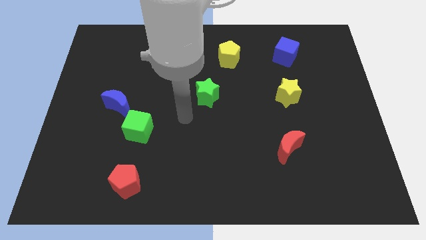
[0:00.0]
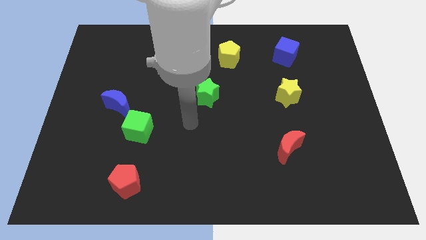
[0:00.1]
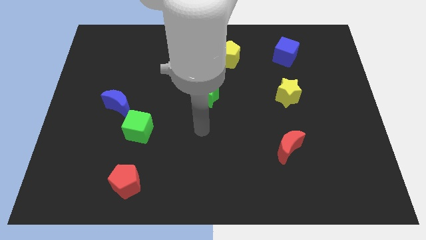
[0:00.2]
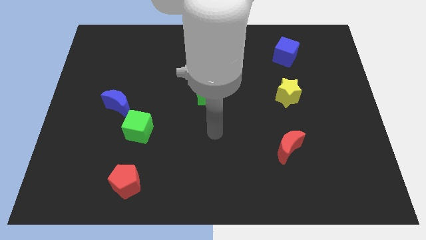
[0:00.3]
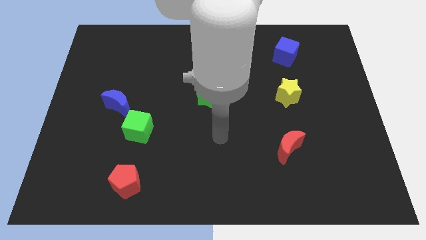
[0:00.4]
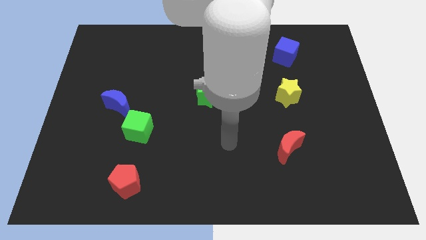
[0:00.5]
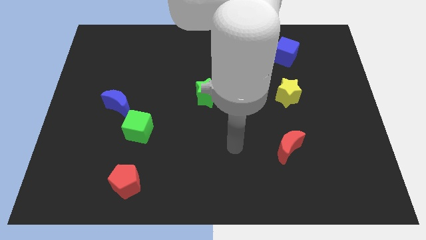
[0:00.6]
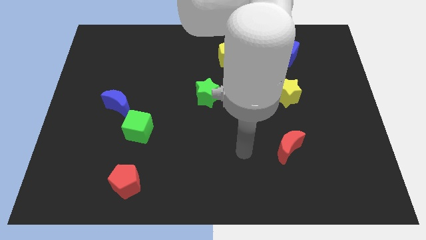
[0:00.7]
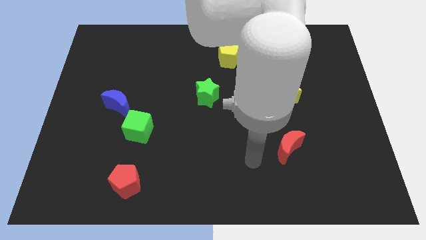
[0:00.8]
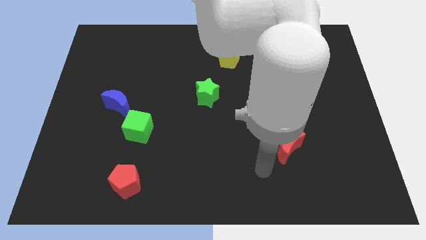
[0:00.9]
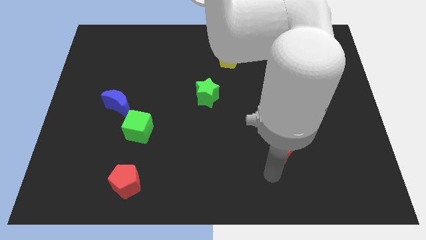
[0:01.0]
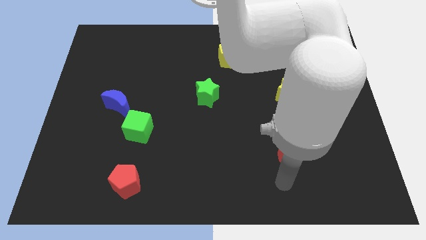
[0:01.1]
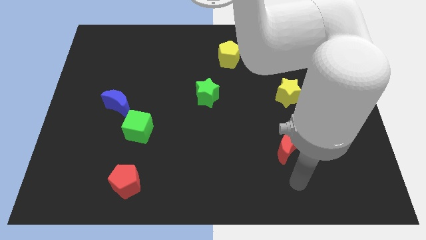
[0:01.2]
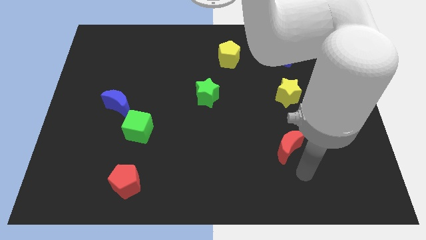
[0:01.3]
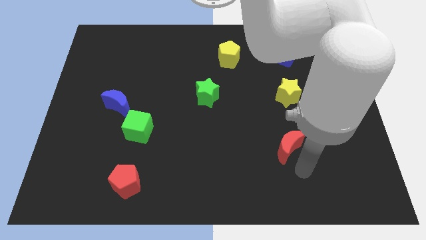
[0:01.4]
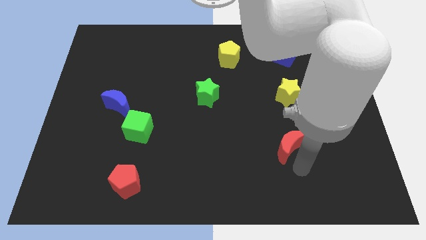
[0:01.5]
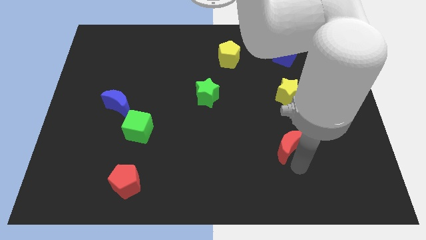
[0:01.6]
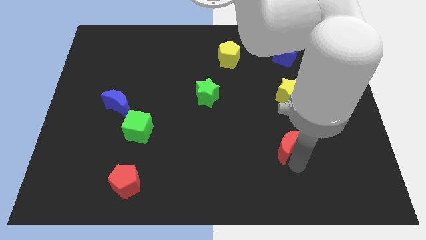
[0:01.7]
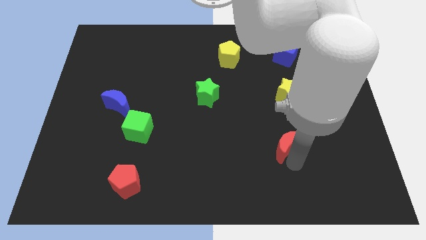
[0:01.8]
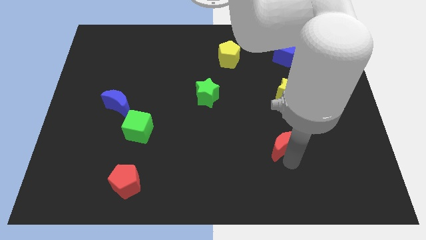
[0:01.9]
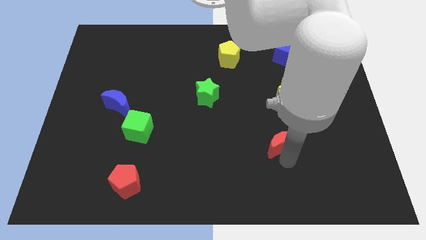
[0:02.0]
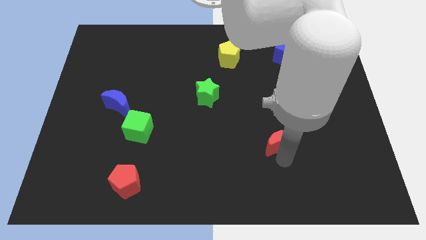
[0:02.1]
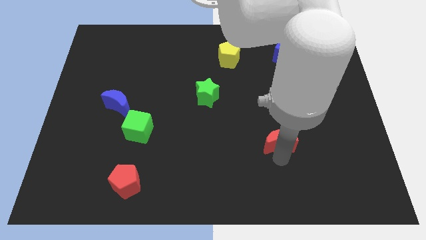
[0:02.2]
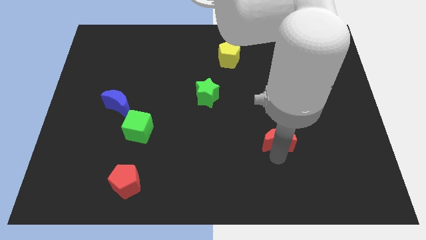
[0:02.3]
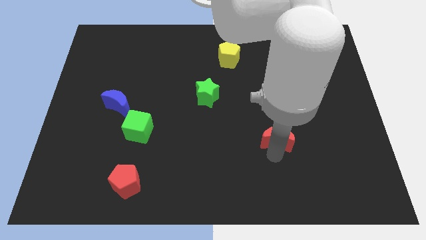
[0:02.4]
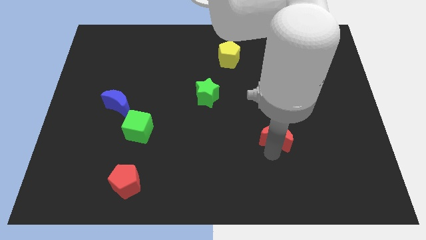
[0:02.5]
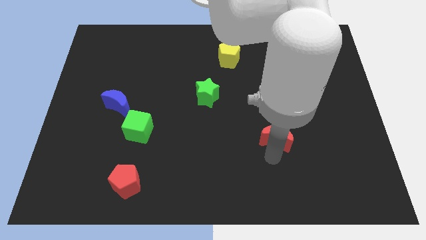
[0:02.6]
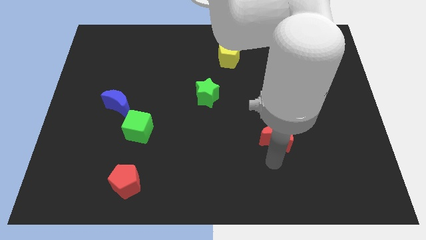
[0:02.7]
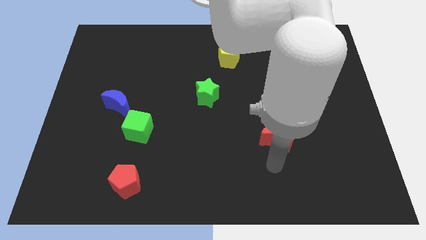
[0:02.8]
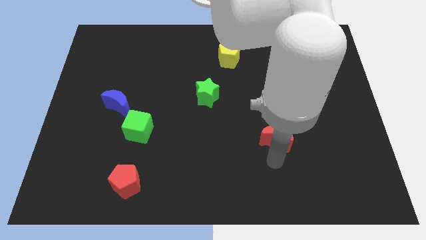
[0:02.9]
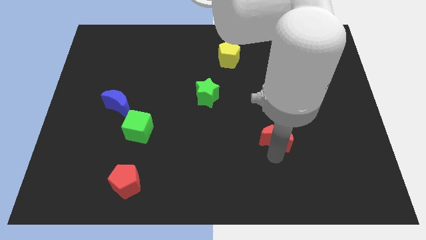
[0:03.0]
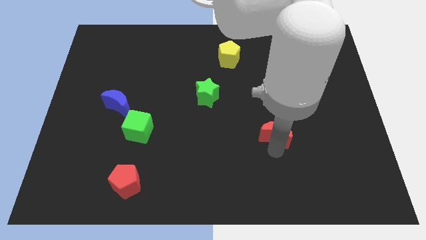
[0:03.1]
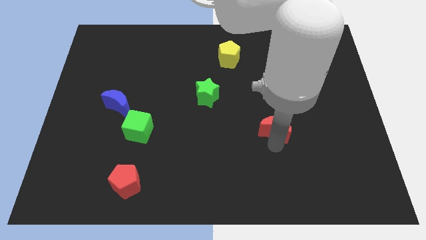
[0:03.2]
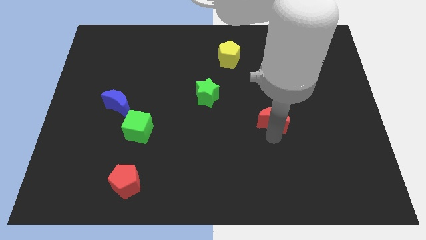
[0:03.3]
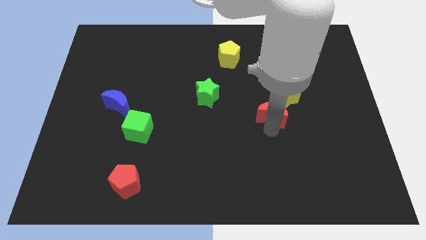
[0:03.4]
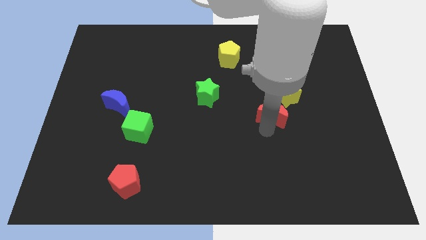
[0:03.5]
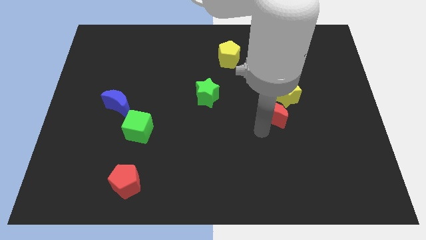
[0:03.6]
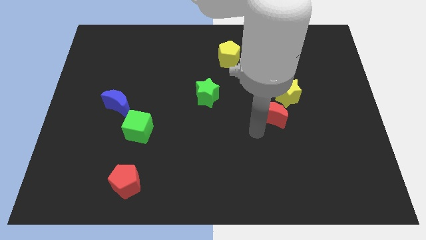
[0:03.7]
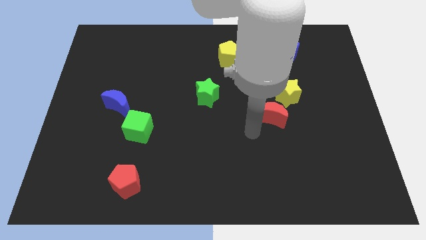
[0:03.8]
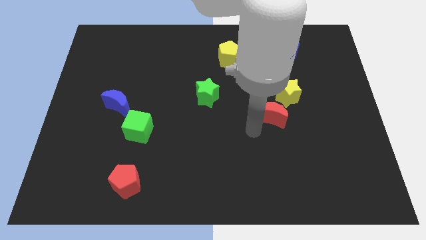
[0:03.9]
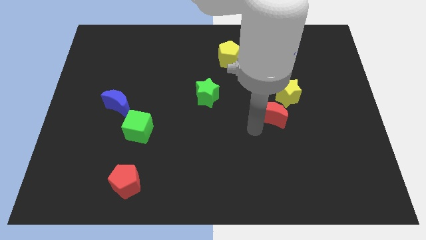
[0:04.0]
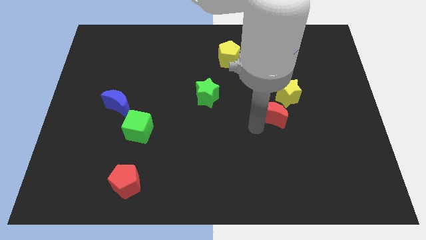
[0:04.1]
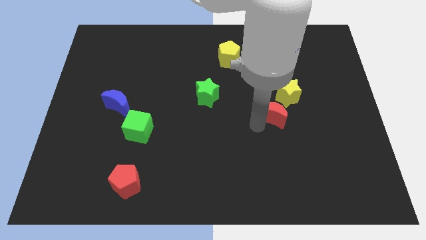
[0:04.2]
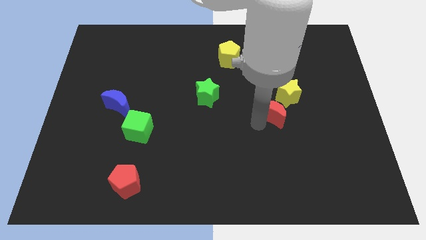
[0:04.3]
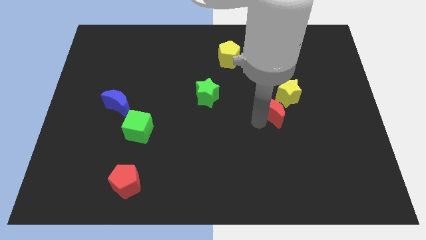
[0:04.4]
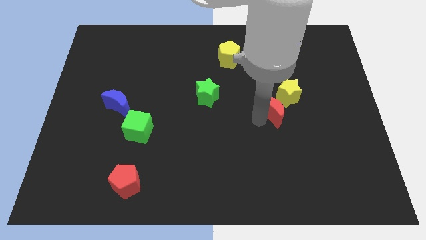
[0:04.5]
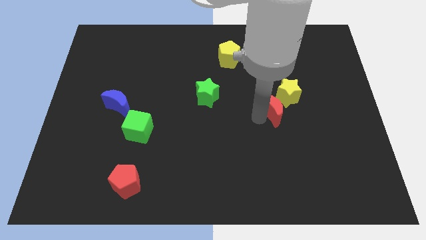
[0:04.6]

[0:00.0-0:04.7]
move the red moon to the yellow star

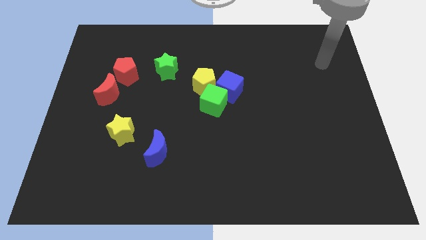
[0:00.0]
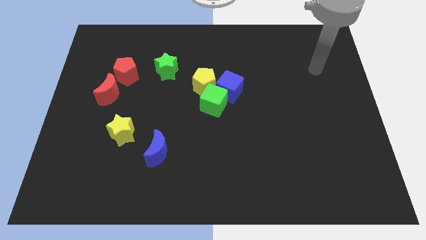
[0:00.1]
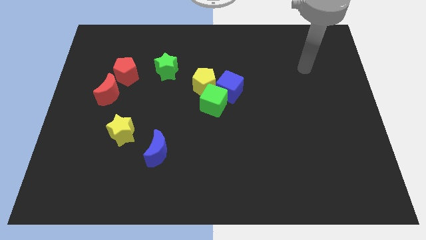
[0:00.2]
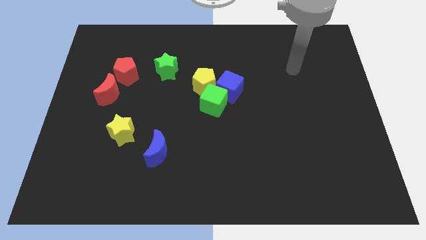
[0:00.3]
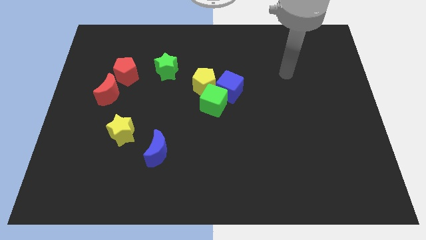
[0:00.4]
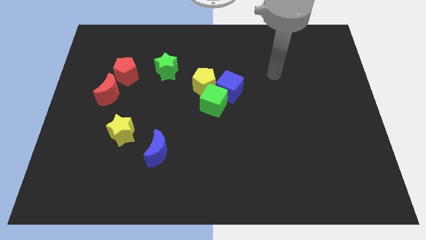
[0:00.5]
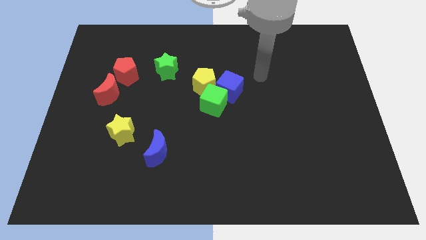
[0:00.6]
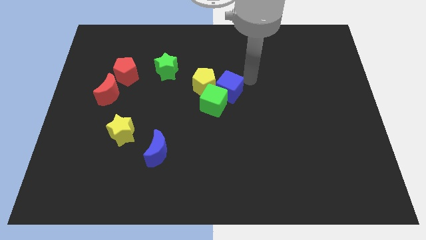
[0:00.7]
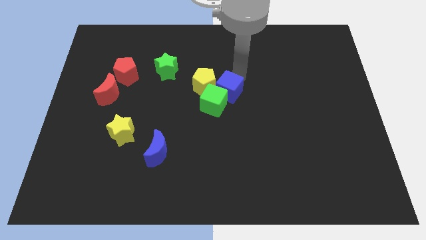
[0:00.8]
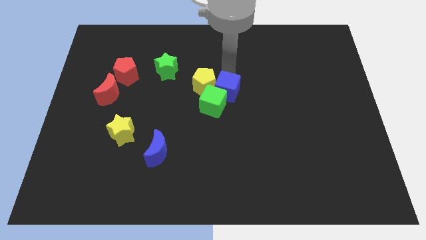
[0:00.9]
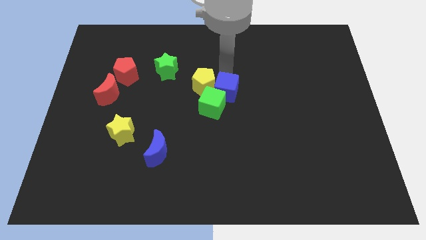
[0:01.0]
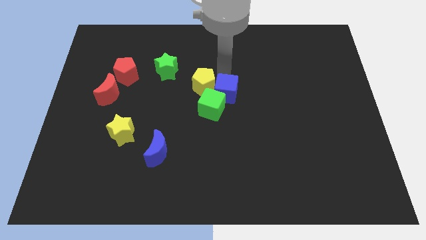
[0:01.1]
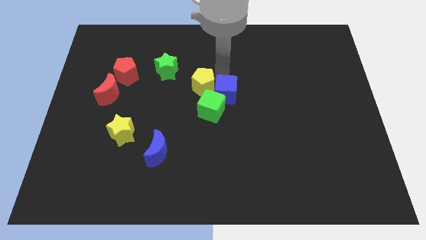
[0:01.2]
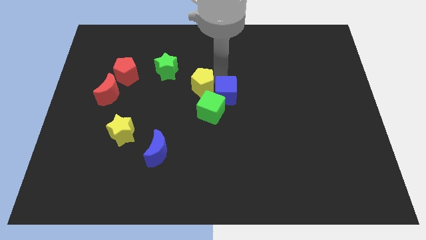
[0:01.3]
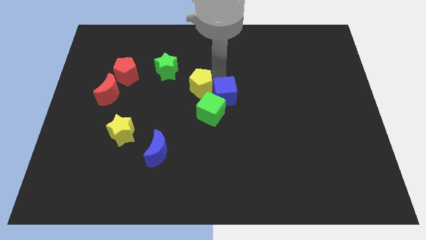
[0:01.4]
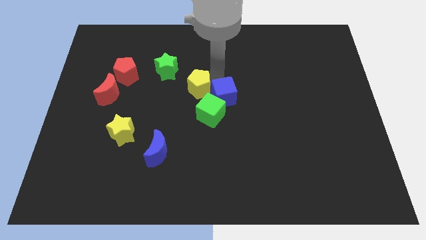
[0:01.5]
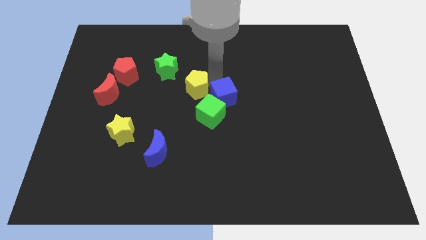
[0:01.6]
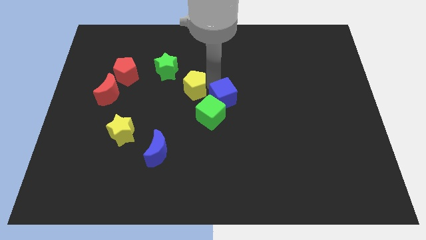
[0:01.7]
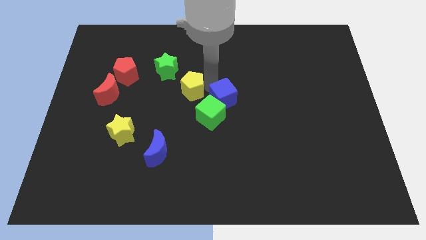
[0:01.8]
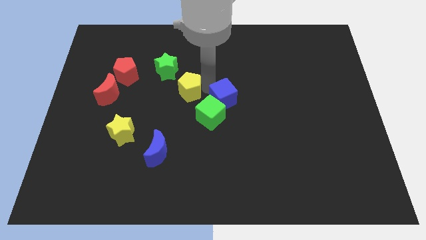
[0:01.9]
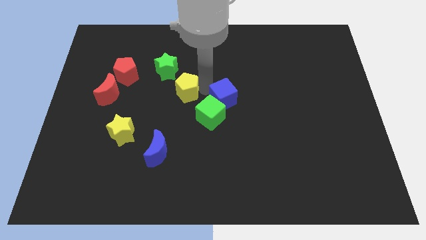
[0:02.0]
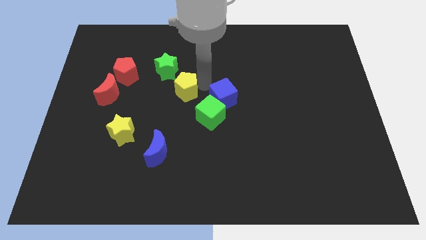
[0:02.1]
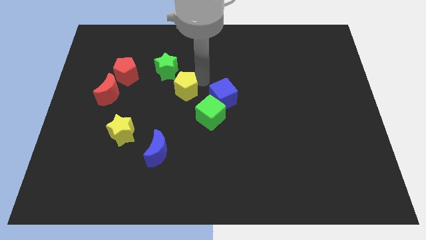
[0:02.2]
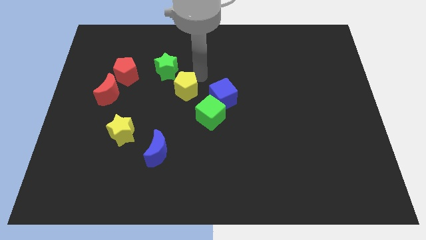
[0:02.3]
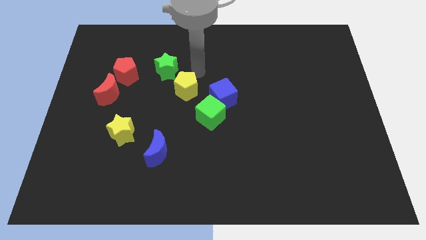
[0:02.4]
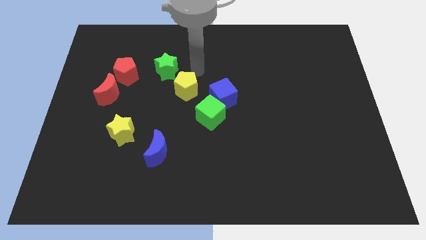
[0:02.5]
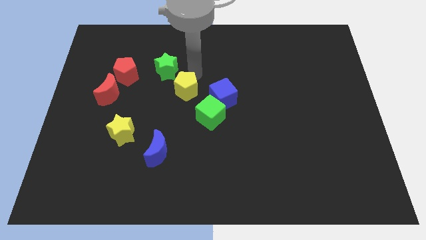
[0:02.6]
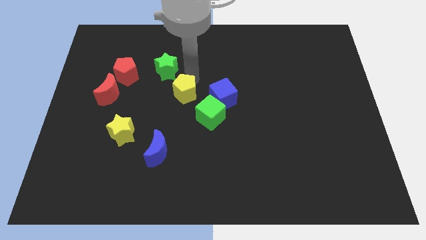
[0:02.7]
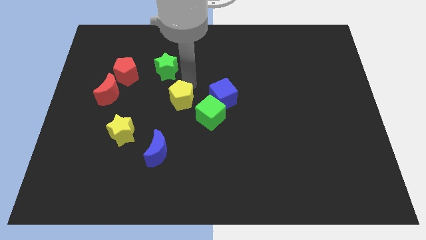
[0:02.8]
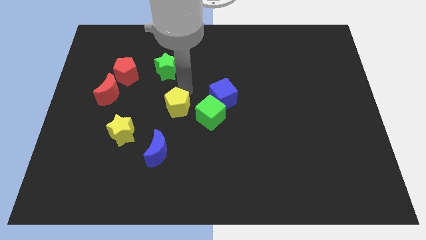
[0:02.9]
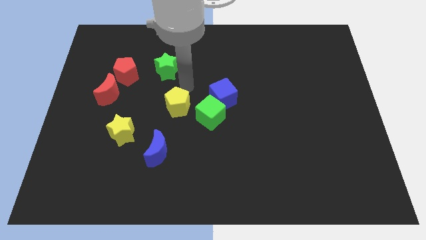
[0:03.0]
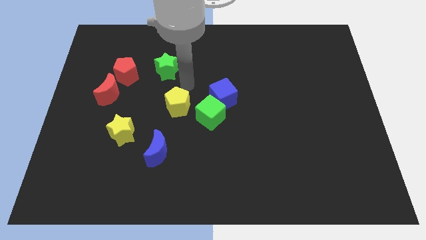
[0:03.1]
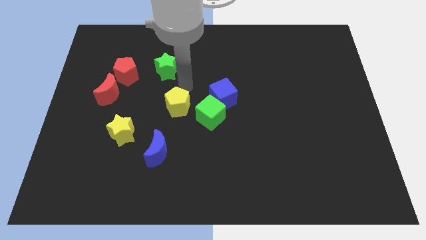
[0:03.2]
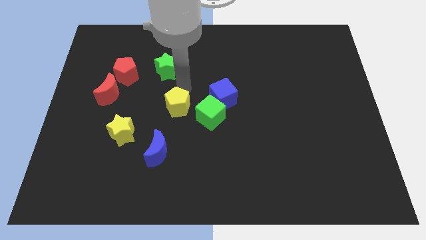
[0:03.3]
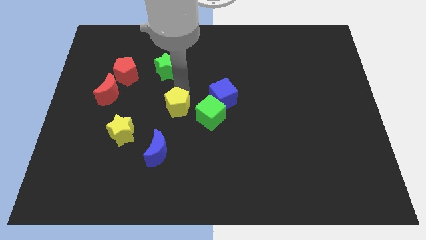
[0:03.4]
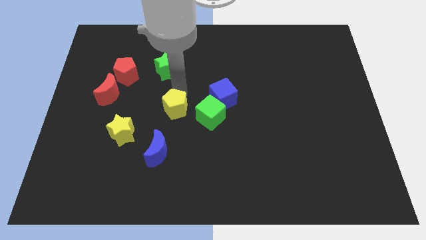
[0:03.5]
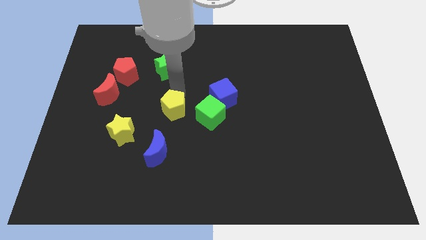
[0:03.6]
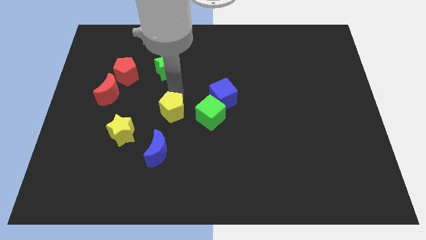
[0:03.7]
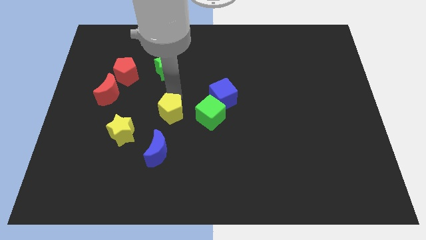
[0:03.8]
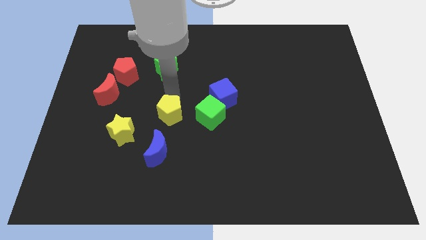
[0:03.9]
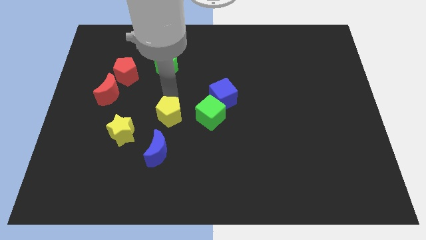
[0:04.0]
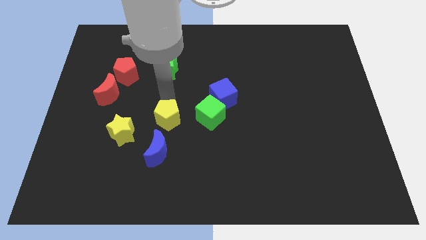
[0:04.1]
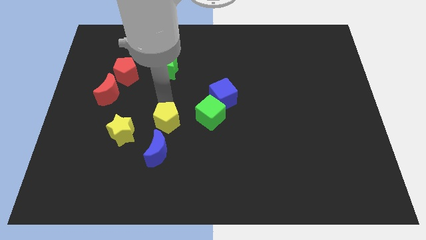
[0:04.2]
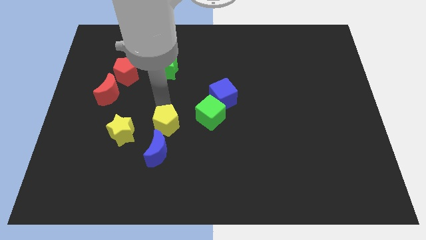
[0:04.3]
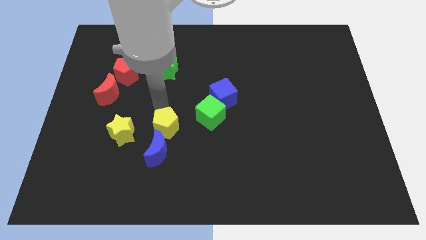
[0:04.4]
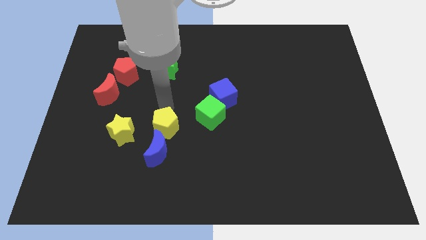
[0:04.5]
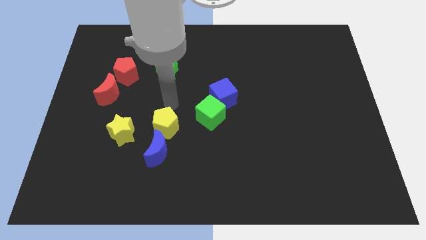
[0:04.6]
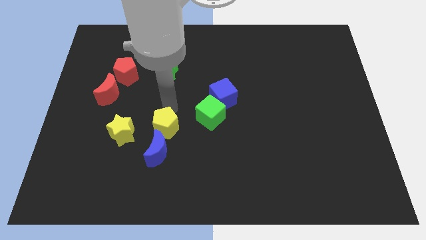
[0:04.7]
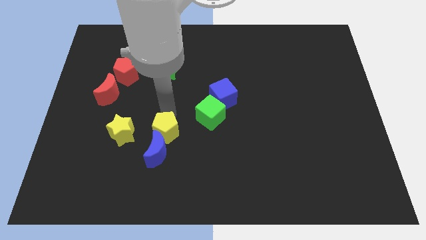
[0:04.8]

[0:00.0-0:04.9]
move the yellow pentagon towards the blue moon
